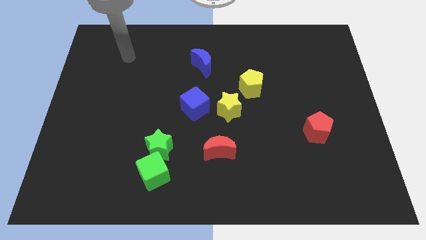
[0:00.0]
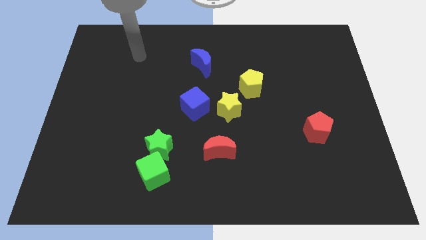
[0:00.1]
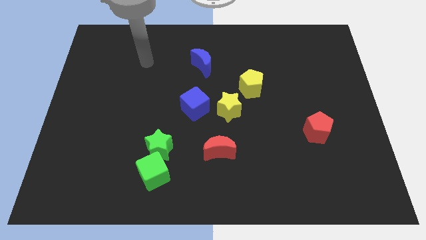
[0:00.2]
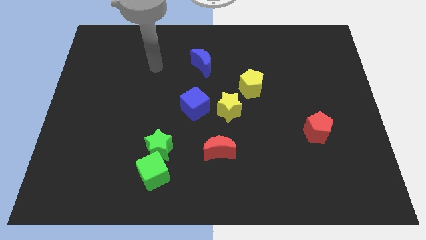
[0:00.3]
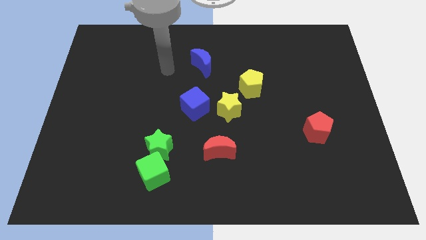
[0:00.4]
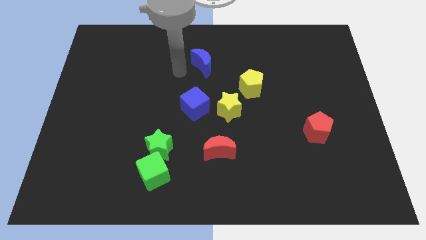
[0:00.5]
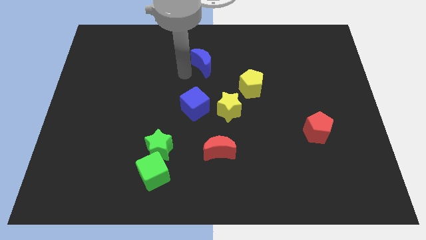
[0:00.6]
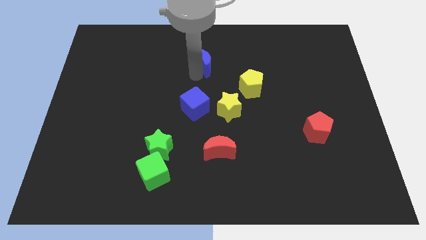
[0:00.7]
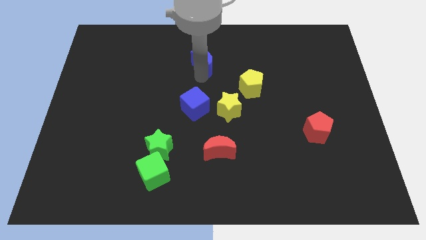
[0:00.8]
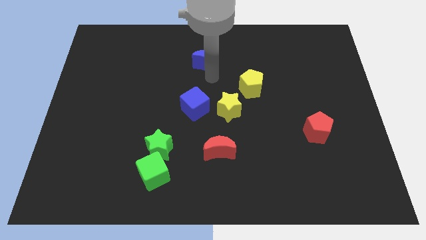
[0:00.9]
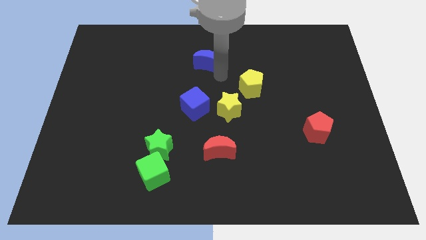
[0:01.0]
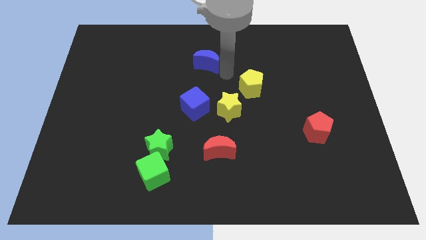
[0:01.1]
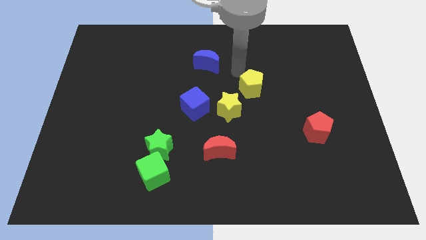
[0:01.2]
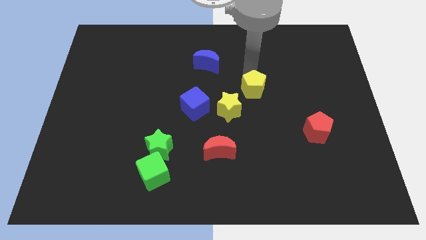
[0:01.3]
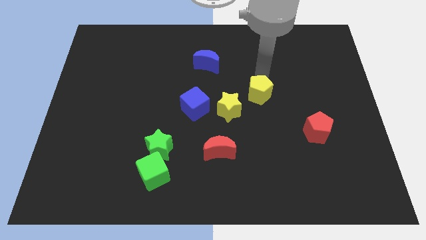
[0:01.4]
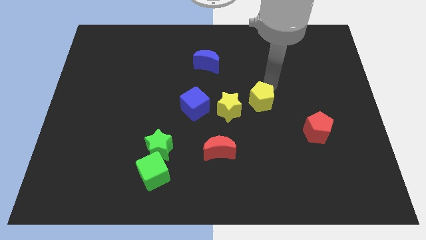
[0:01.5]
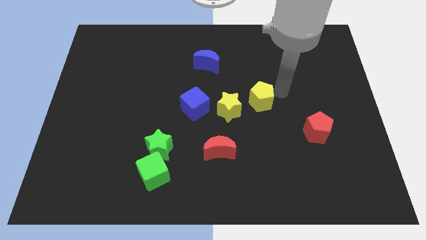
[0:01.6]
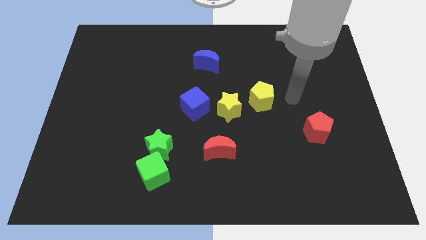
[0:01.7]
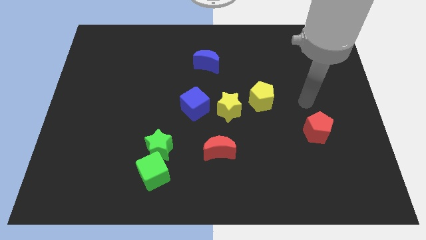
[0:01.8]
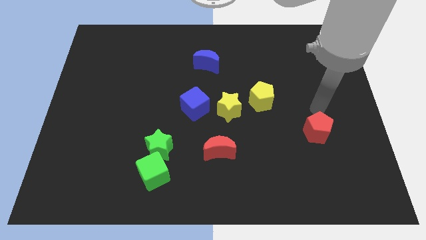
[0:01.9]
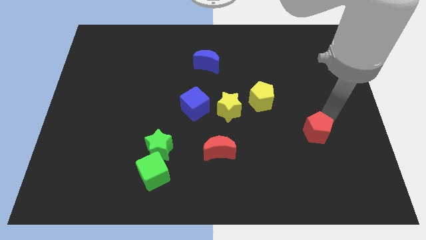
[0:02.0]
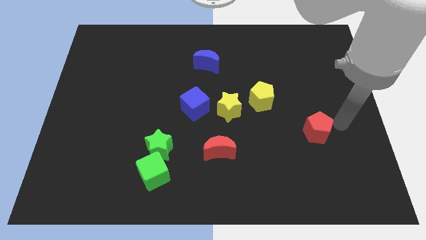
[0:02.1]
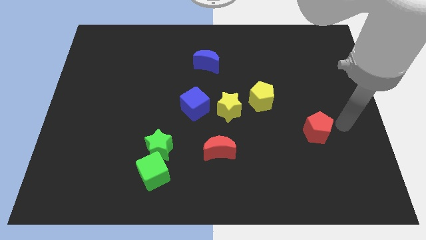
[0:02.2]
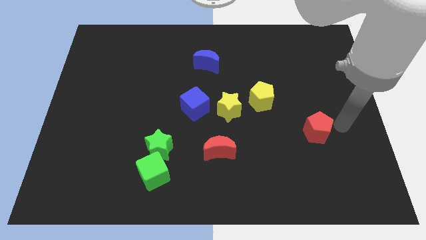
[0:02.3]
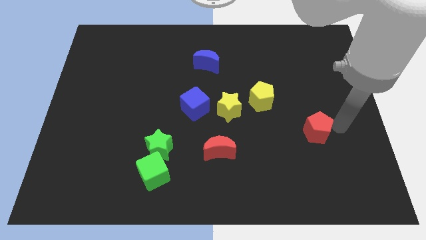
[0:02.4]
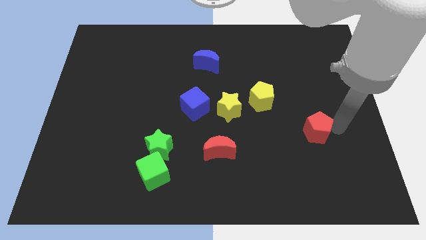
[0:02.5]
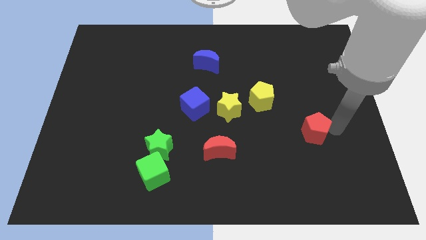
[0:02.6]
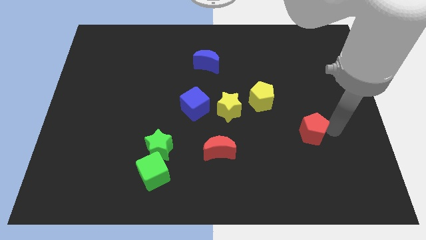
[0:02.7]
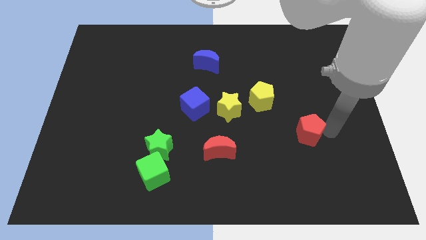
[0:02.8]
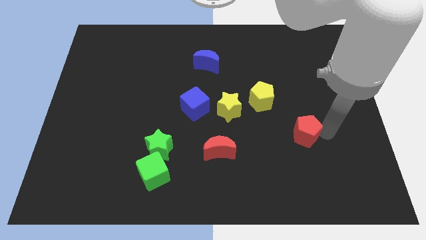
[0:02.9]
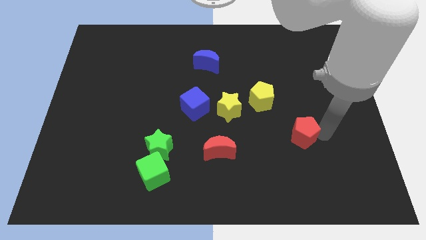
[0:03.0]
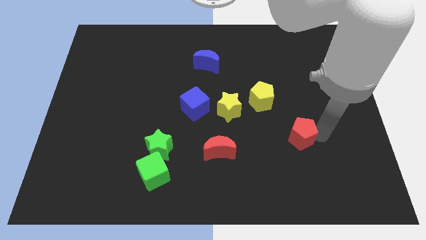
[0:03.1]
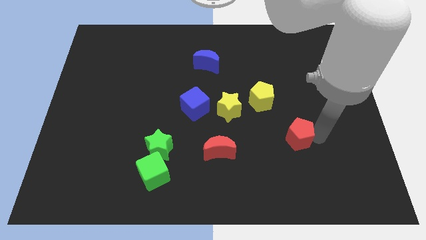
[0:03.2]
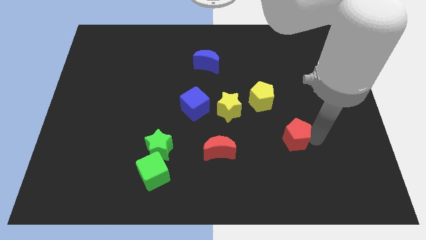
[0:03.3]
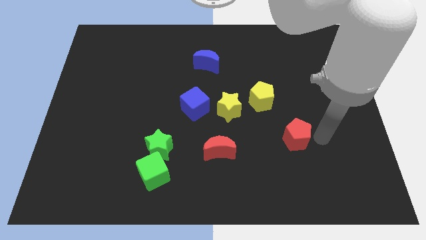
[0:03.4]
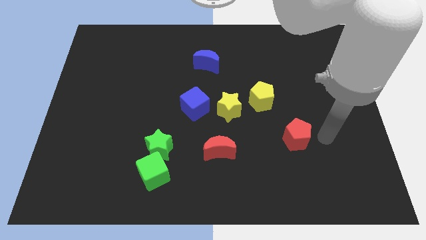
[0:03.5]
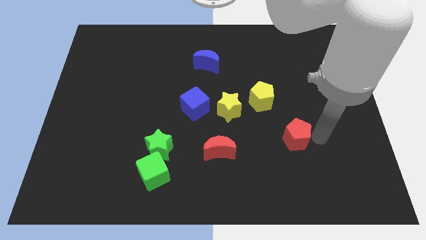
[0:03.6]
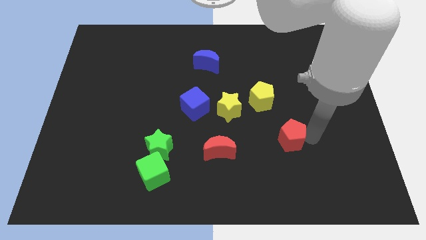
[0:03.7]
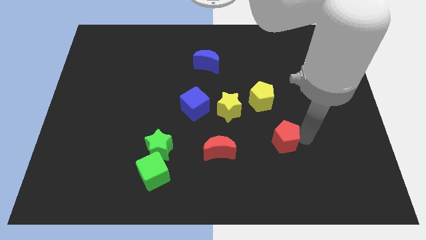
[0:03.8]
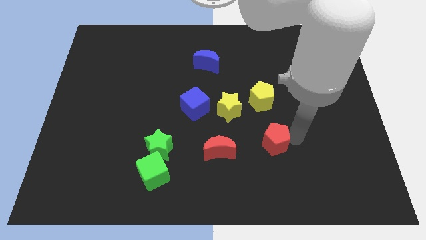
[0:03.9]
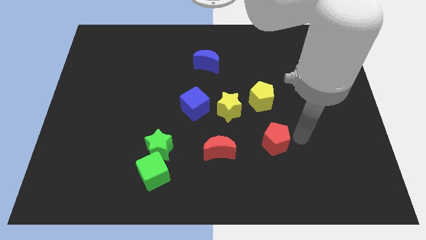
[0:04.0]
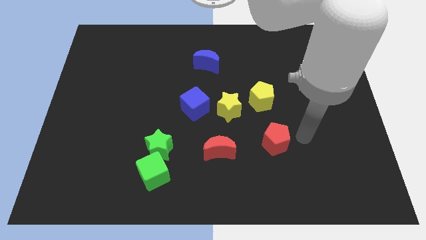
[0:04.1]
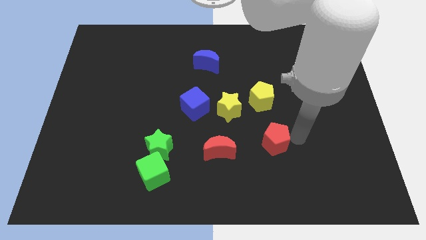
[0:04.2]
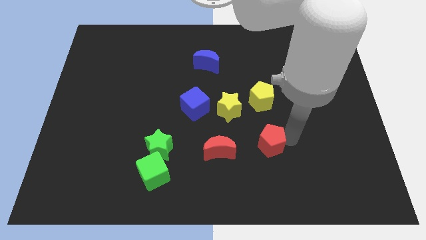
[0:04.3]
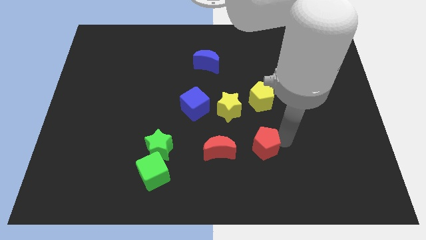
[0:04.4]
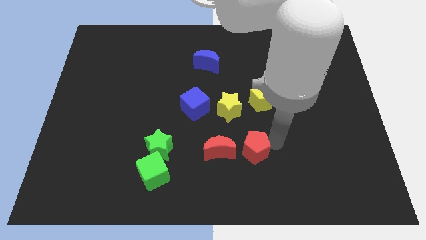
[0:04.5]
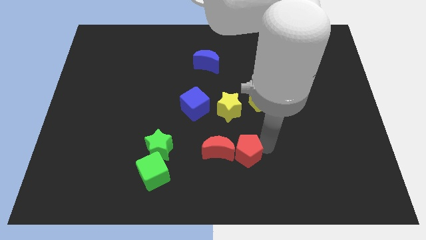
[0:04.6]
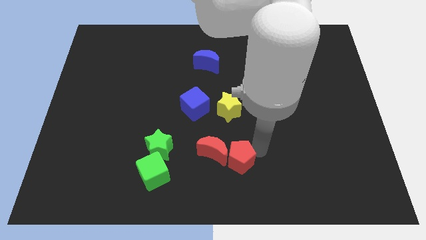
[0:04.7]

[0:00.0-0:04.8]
slide the red pentagon close to the red moon

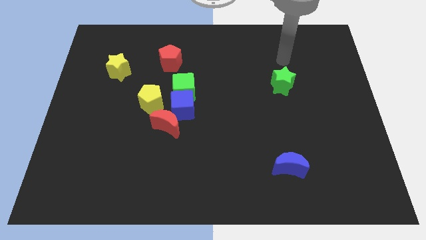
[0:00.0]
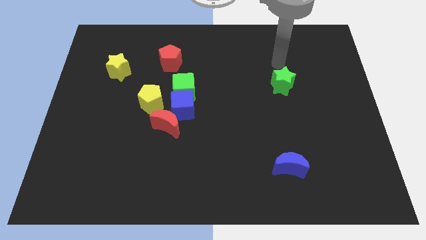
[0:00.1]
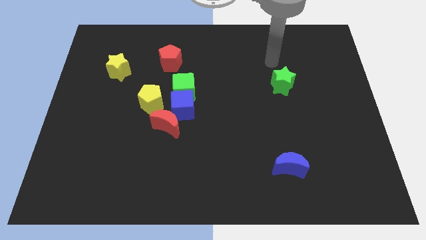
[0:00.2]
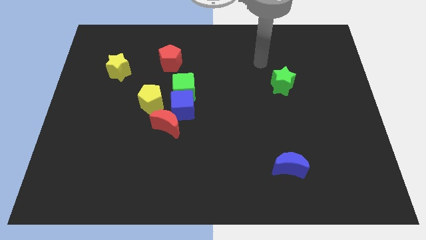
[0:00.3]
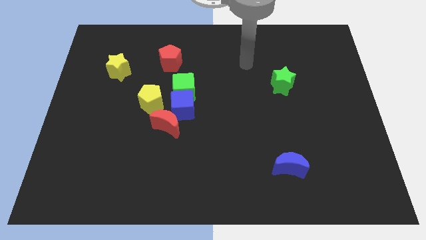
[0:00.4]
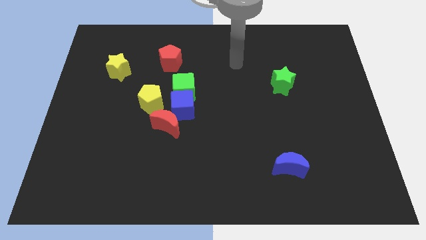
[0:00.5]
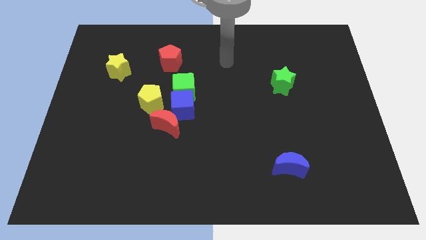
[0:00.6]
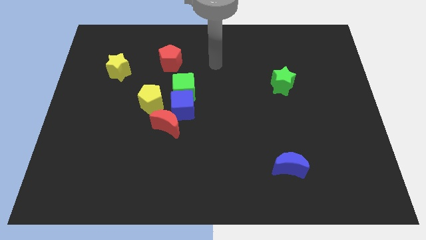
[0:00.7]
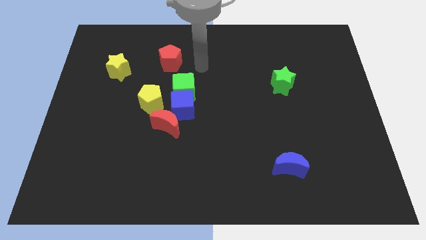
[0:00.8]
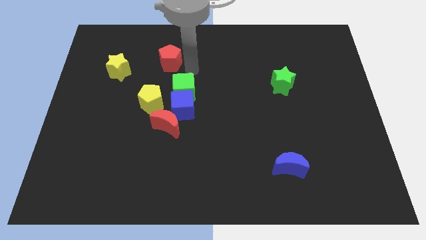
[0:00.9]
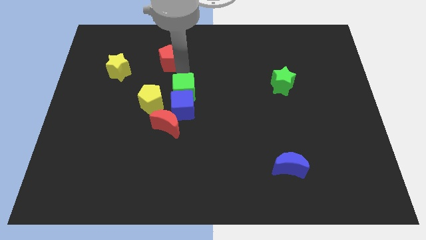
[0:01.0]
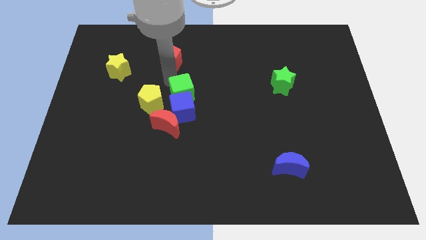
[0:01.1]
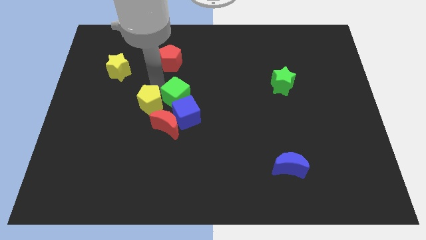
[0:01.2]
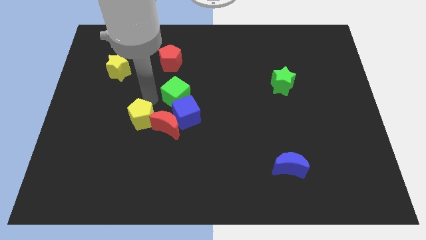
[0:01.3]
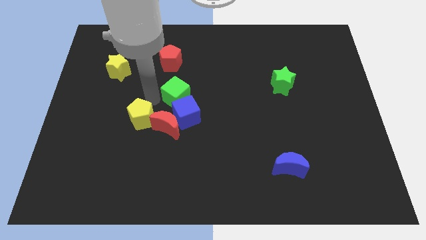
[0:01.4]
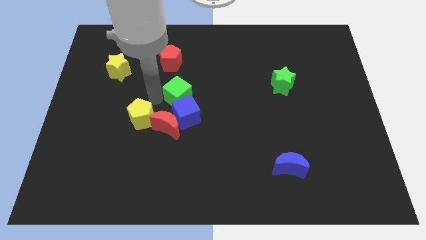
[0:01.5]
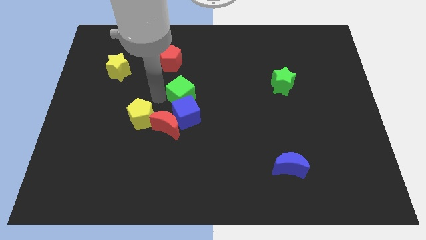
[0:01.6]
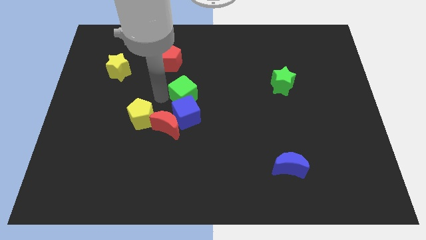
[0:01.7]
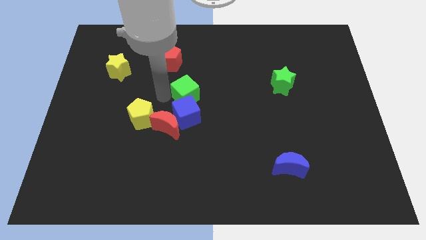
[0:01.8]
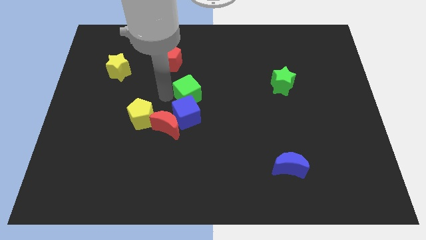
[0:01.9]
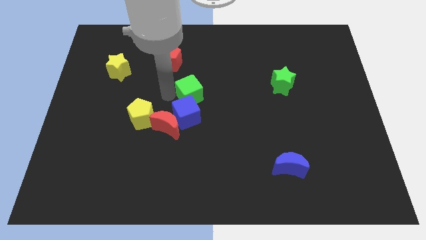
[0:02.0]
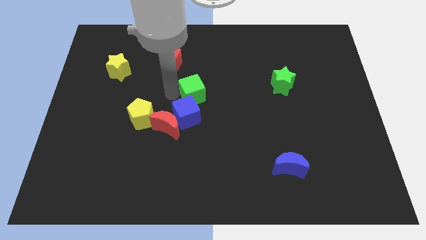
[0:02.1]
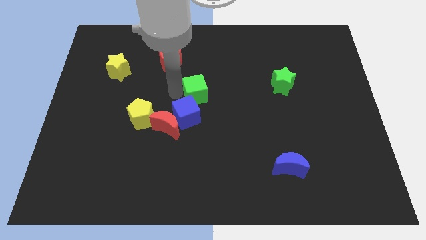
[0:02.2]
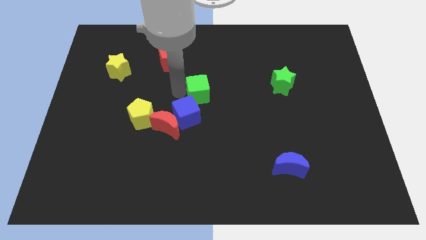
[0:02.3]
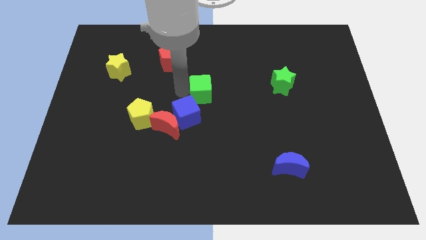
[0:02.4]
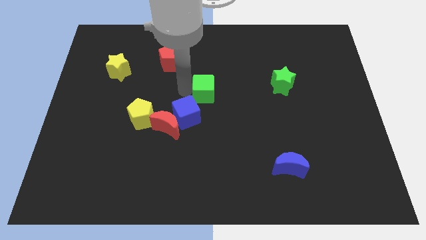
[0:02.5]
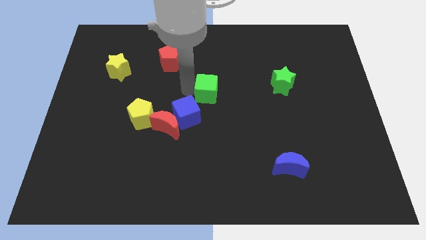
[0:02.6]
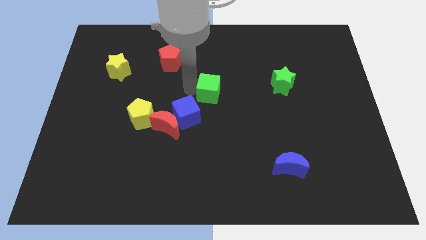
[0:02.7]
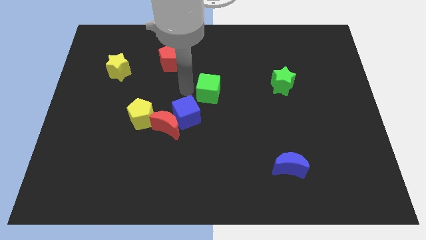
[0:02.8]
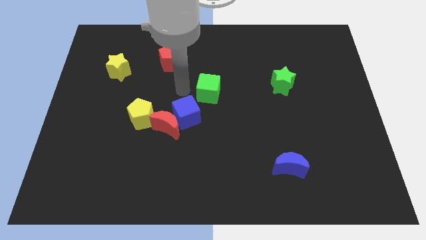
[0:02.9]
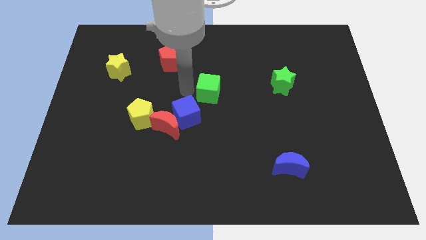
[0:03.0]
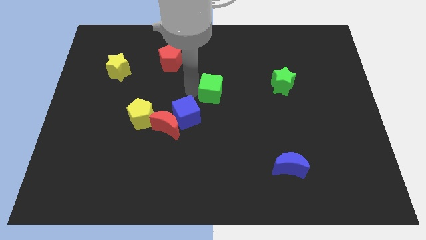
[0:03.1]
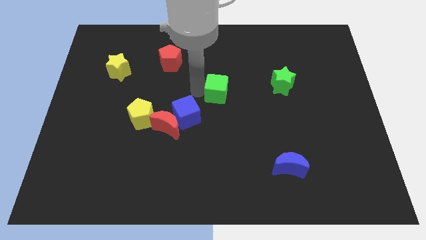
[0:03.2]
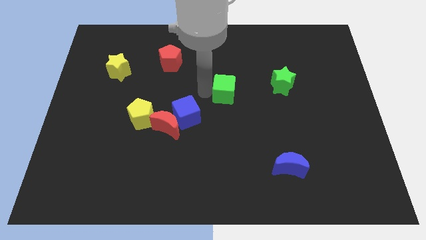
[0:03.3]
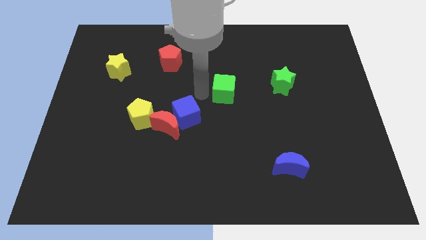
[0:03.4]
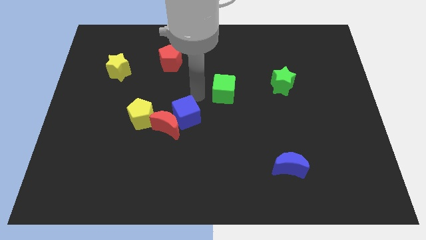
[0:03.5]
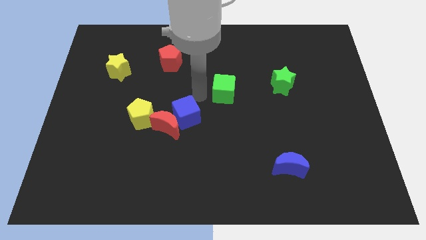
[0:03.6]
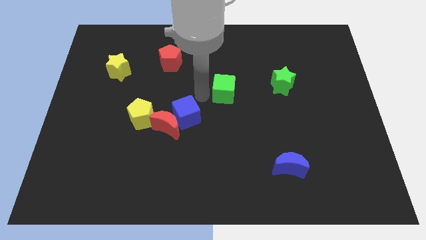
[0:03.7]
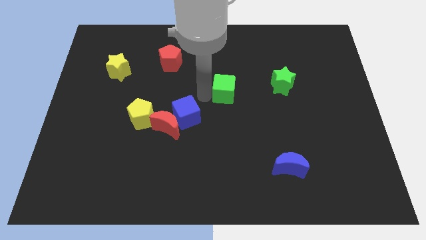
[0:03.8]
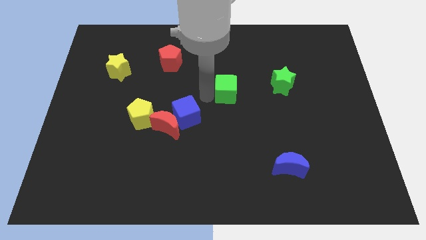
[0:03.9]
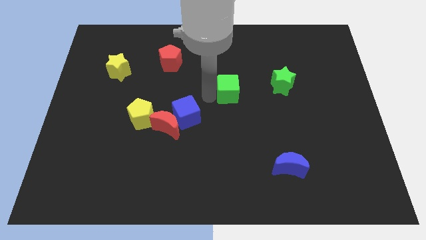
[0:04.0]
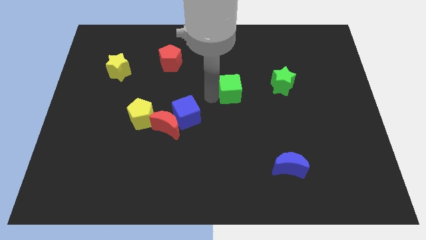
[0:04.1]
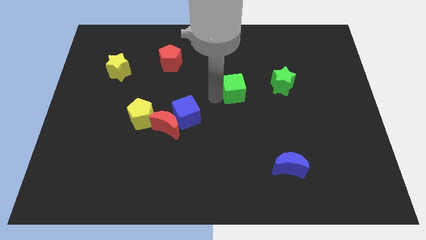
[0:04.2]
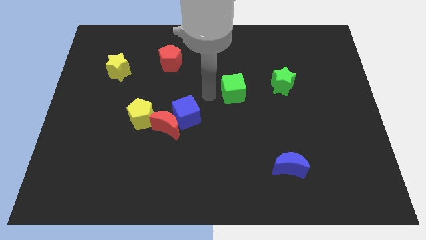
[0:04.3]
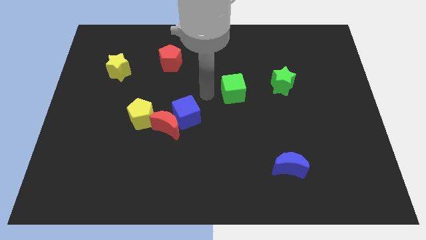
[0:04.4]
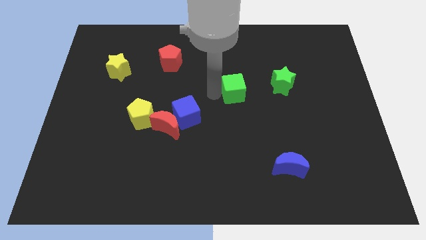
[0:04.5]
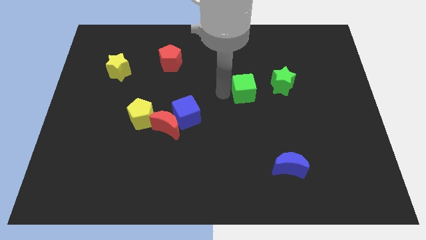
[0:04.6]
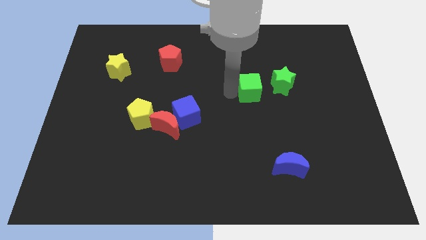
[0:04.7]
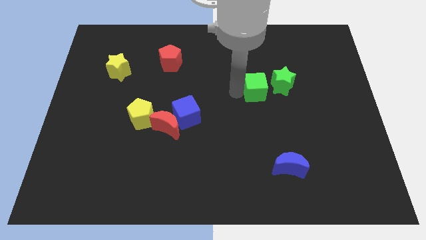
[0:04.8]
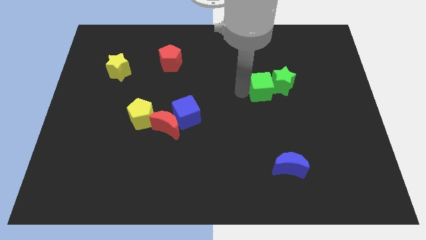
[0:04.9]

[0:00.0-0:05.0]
push the green cube next to the green star
